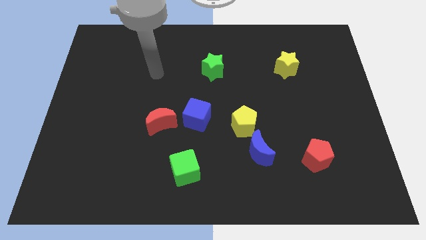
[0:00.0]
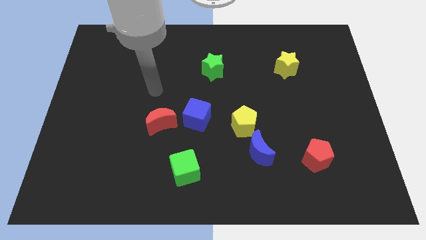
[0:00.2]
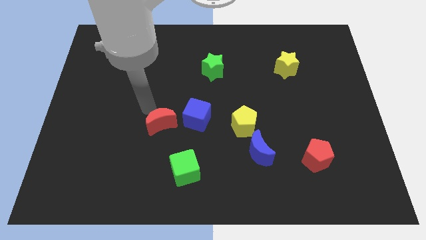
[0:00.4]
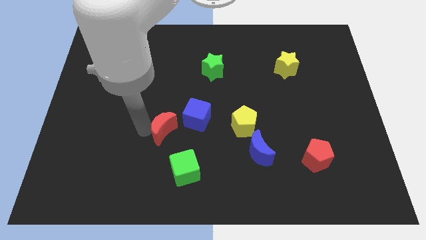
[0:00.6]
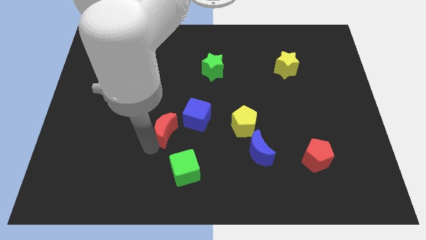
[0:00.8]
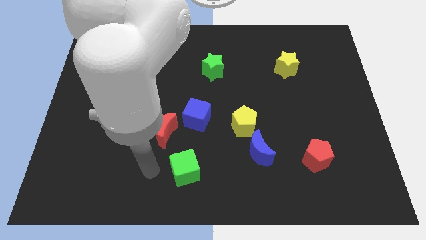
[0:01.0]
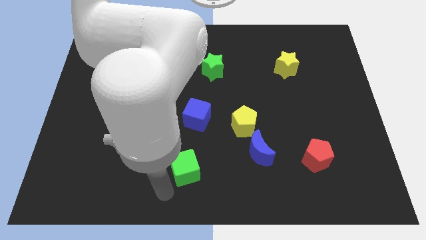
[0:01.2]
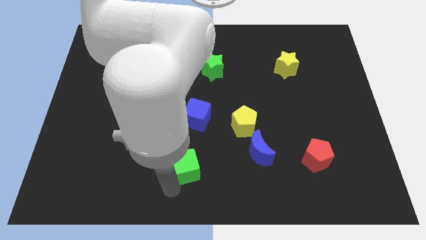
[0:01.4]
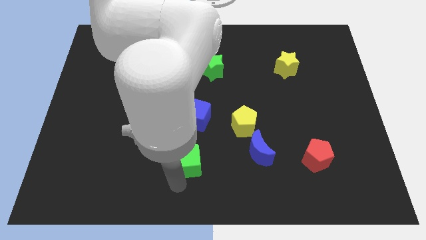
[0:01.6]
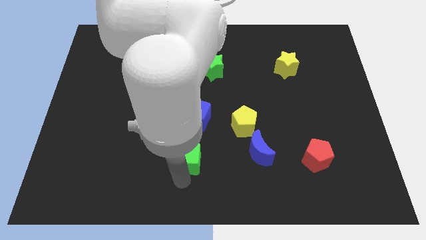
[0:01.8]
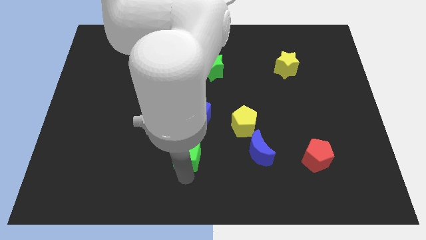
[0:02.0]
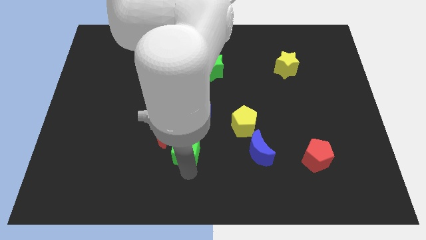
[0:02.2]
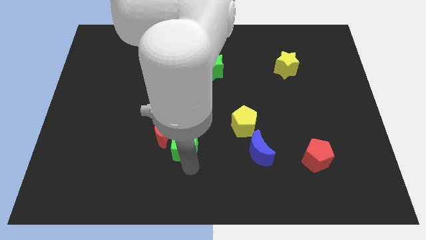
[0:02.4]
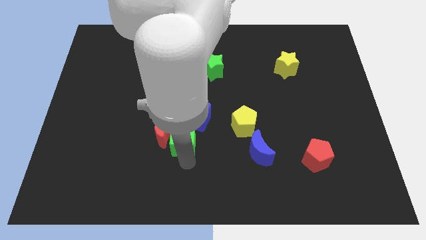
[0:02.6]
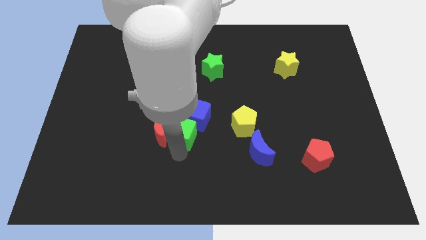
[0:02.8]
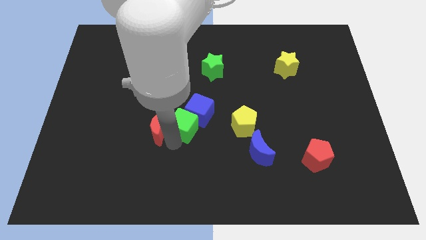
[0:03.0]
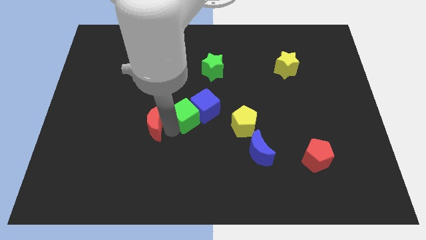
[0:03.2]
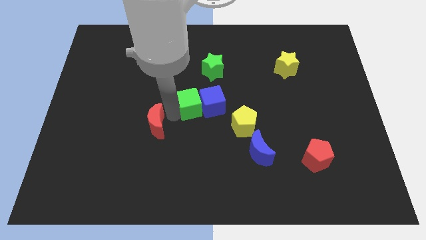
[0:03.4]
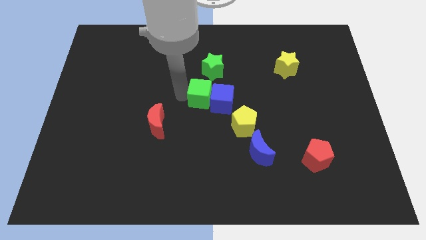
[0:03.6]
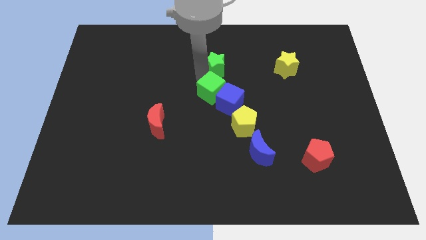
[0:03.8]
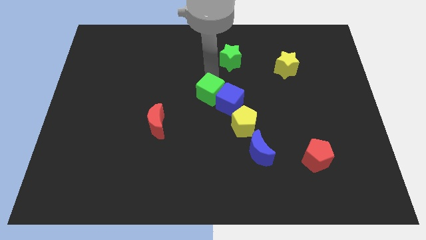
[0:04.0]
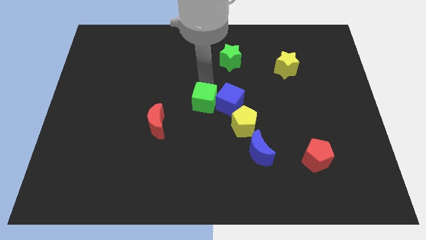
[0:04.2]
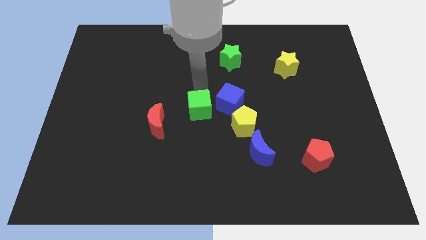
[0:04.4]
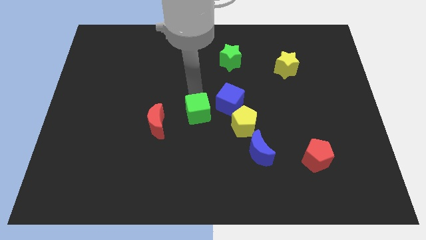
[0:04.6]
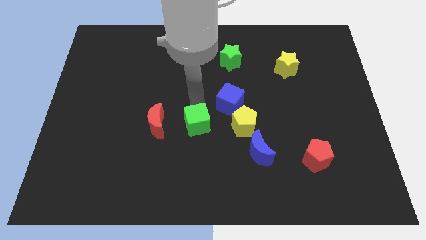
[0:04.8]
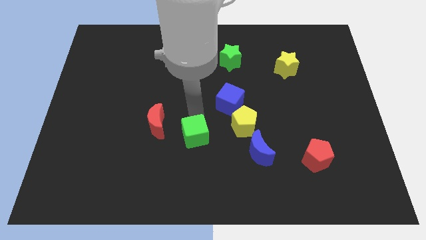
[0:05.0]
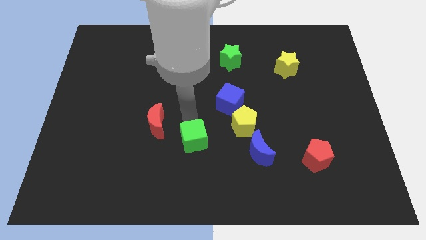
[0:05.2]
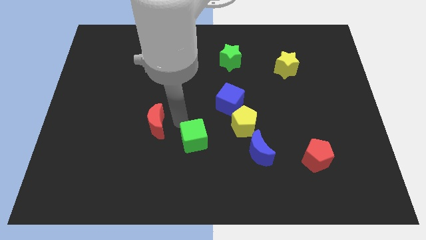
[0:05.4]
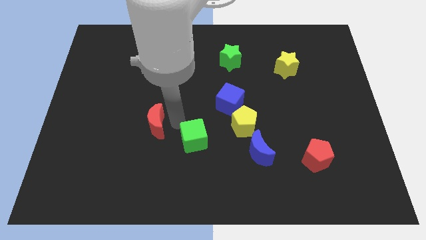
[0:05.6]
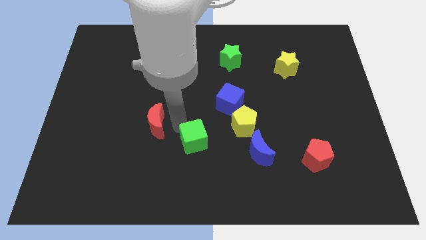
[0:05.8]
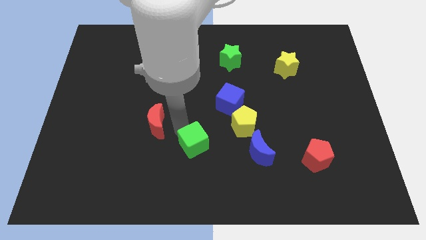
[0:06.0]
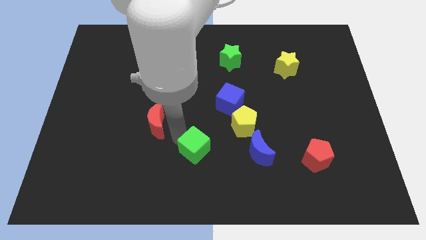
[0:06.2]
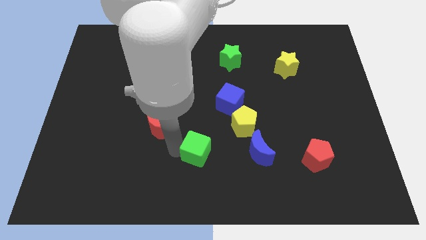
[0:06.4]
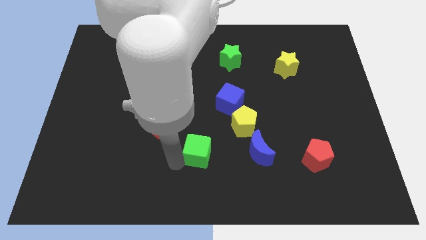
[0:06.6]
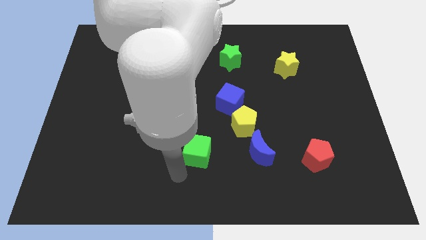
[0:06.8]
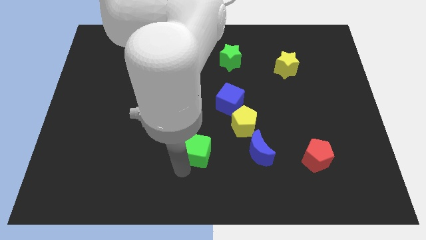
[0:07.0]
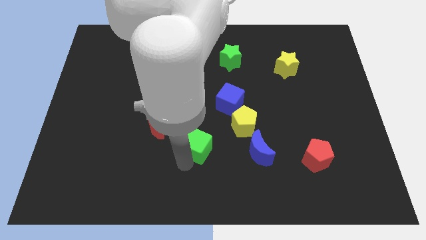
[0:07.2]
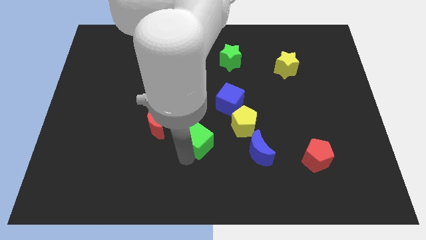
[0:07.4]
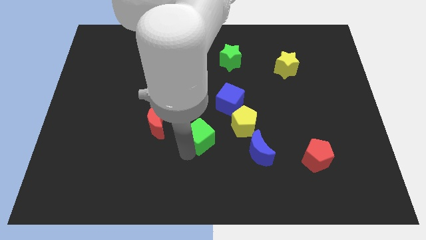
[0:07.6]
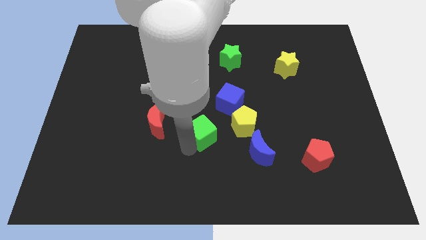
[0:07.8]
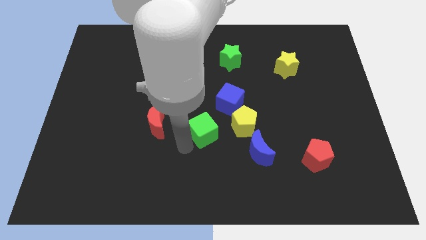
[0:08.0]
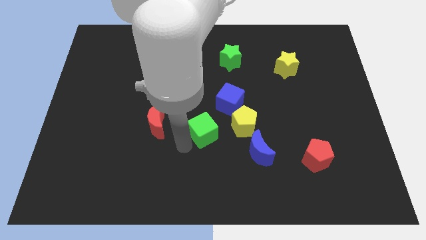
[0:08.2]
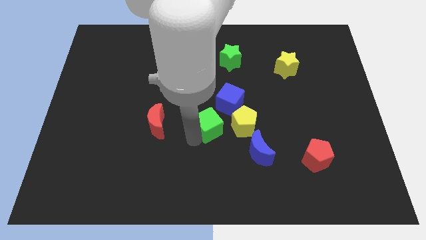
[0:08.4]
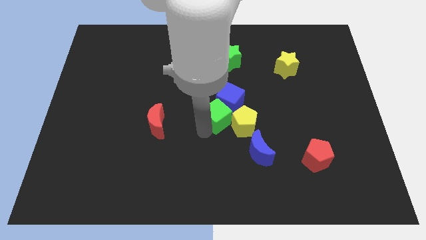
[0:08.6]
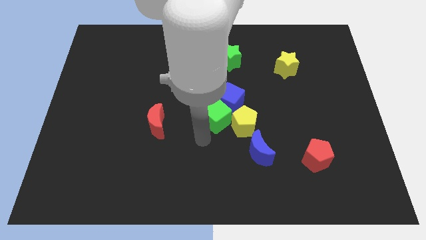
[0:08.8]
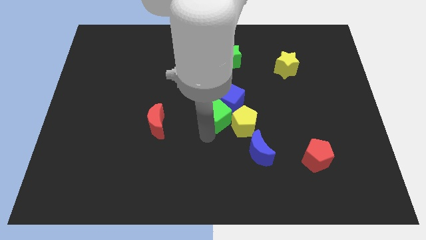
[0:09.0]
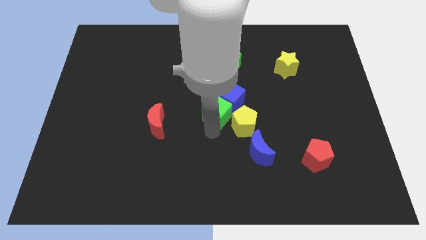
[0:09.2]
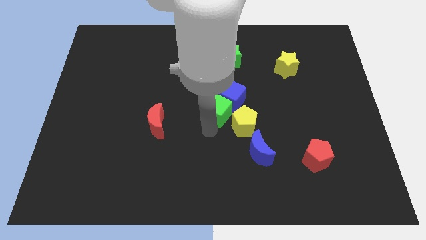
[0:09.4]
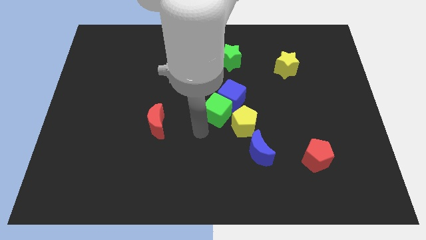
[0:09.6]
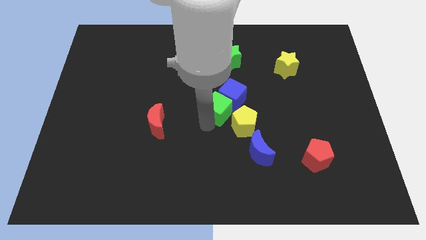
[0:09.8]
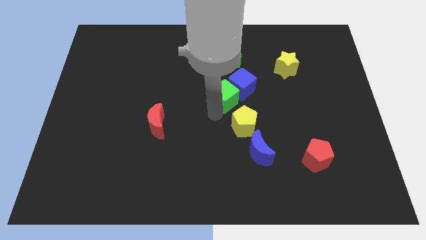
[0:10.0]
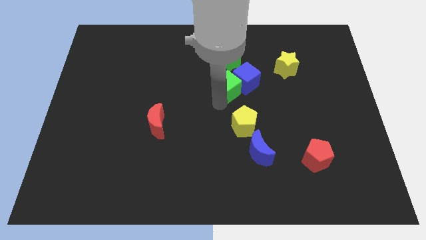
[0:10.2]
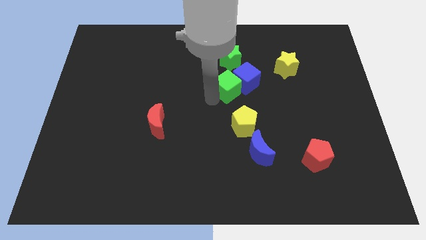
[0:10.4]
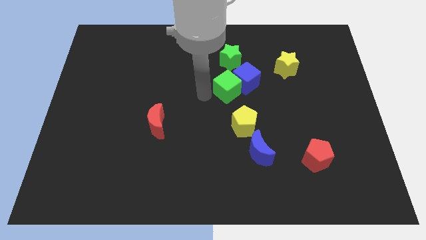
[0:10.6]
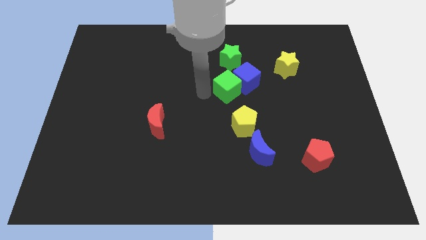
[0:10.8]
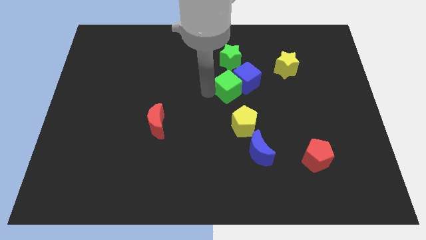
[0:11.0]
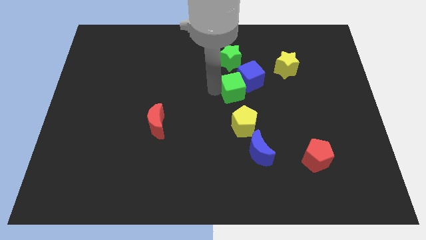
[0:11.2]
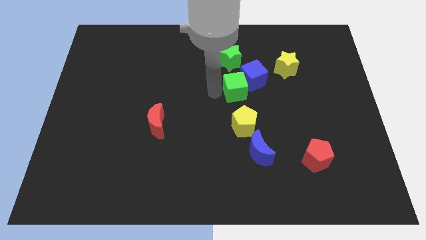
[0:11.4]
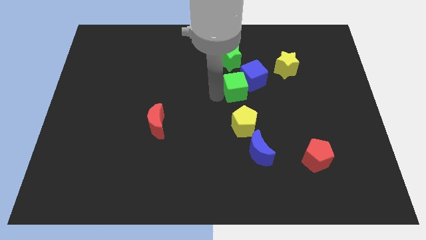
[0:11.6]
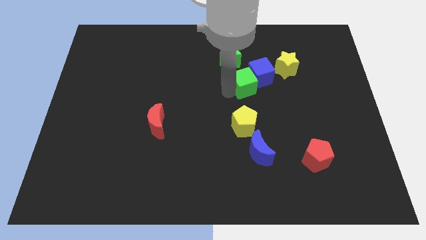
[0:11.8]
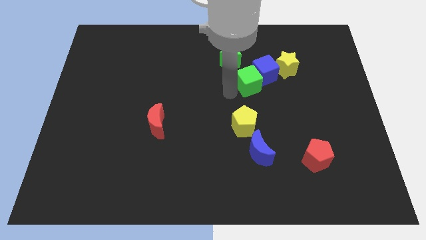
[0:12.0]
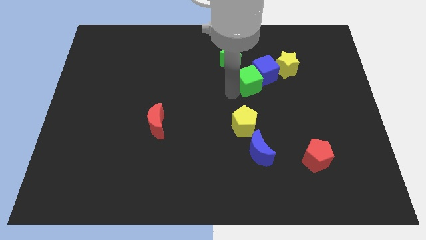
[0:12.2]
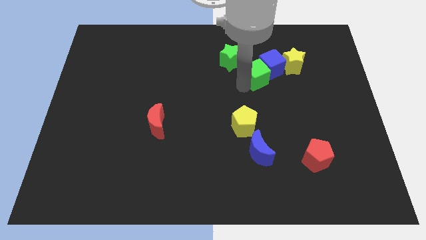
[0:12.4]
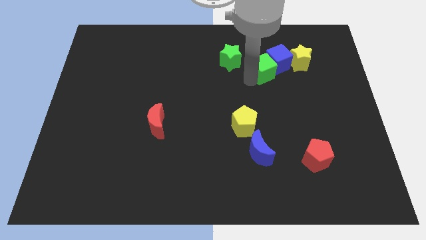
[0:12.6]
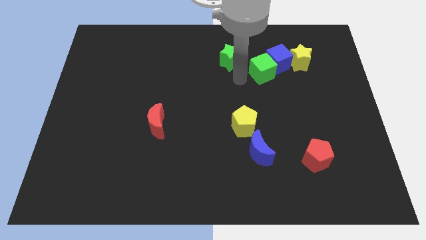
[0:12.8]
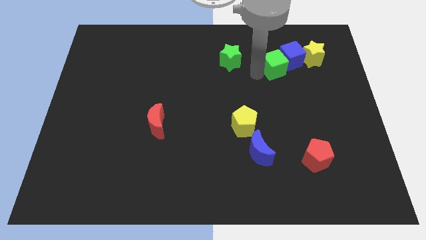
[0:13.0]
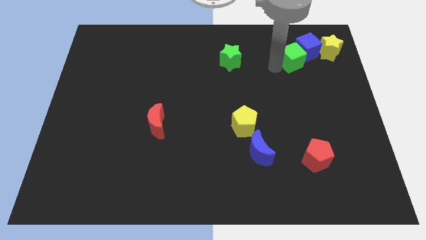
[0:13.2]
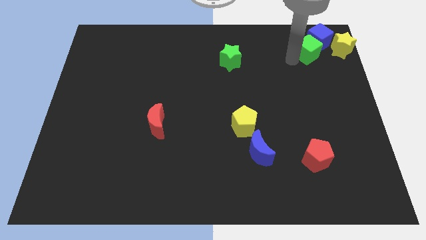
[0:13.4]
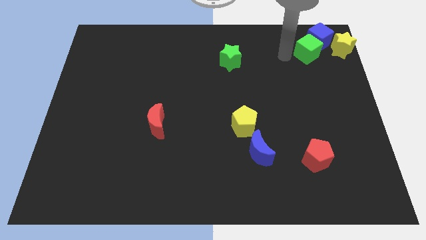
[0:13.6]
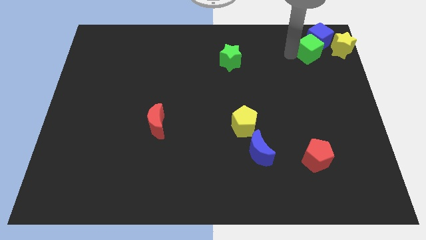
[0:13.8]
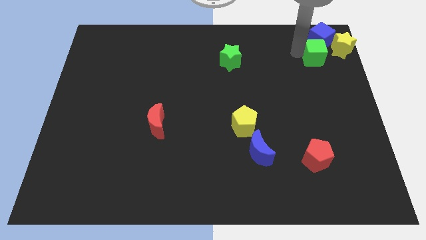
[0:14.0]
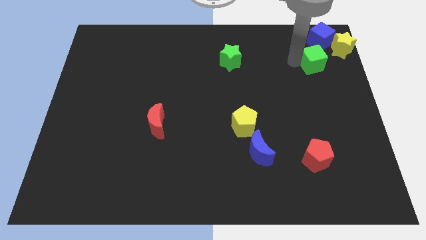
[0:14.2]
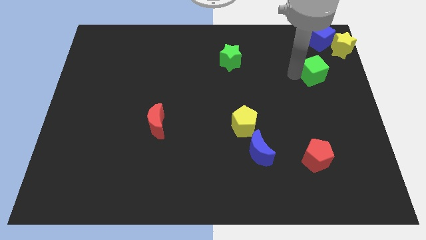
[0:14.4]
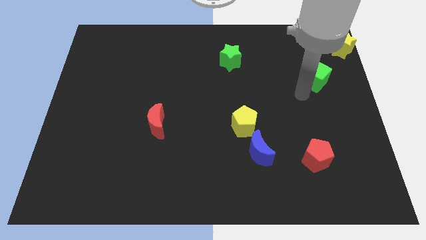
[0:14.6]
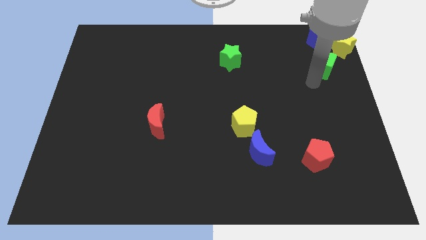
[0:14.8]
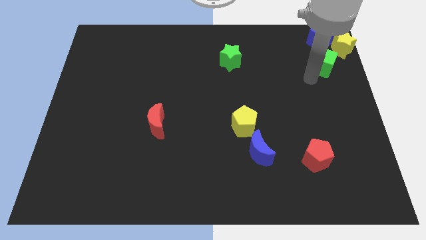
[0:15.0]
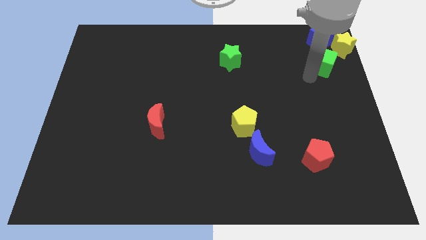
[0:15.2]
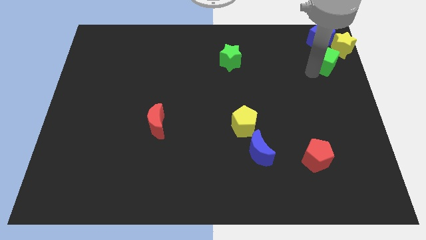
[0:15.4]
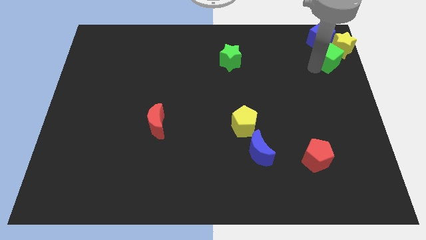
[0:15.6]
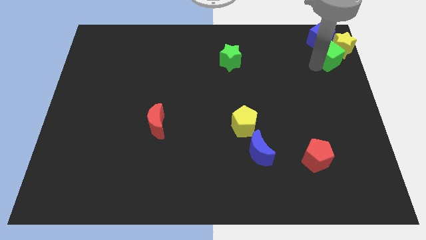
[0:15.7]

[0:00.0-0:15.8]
slide the green cube close to the yellow star
